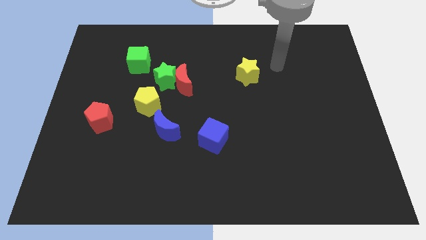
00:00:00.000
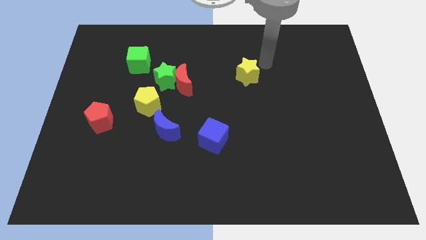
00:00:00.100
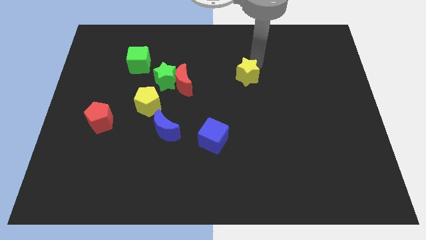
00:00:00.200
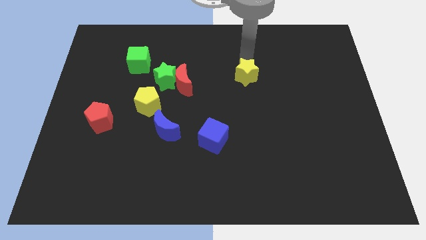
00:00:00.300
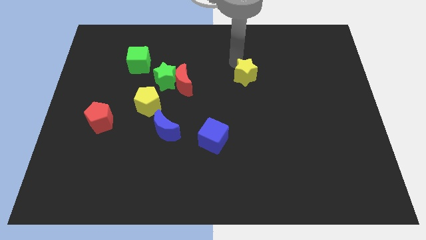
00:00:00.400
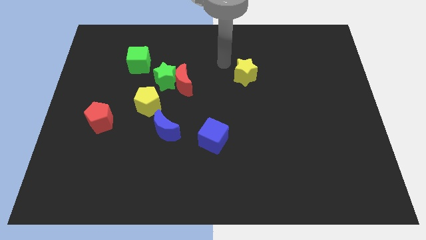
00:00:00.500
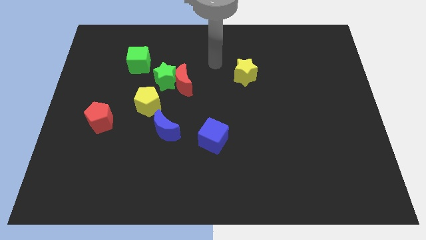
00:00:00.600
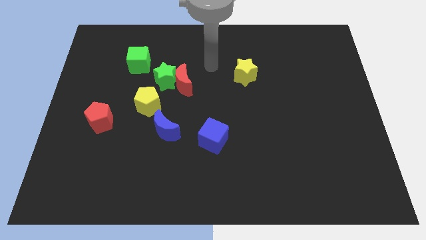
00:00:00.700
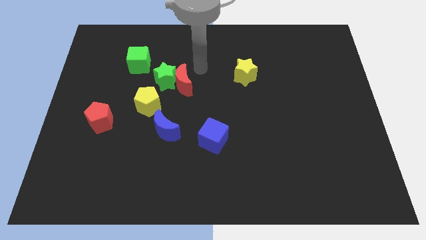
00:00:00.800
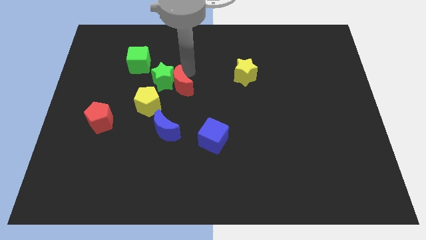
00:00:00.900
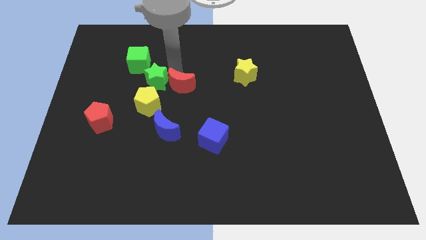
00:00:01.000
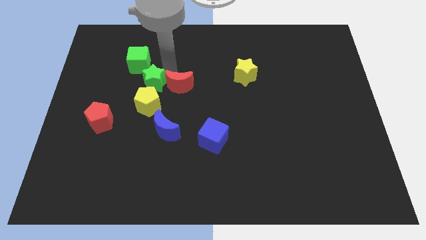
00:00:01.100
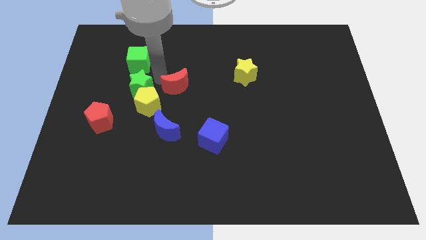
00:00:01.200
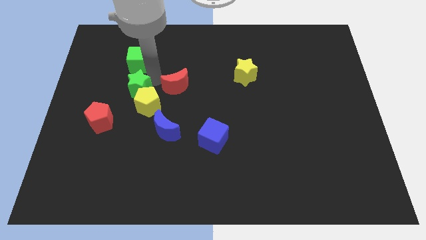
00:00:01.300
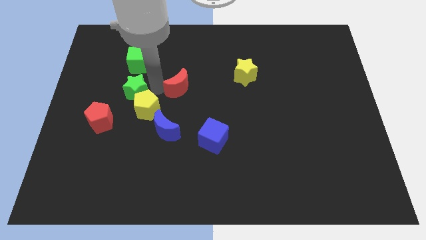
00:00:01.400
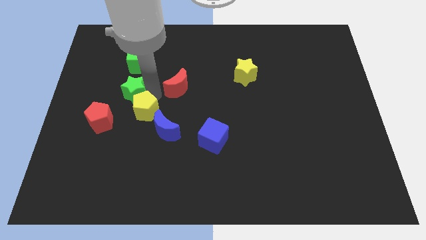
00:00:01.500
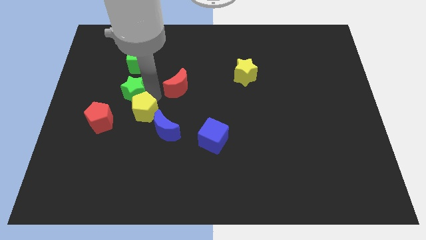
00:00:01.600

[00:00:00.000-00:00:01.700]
move the red moon away from the green star and yellow pentagon

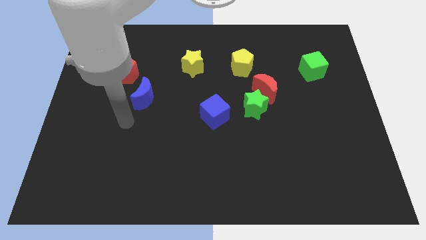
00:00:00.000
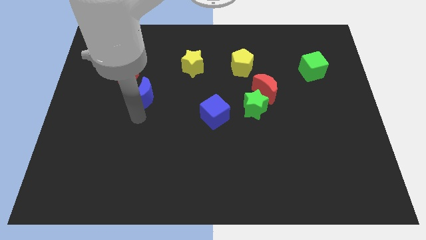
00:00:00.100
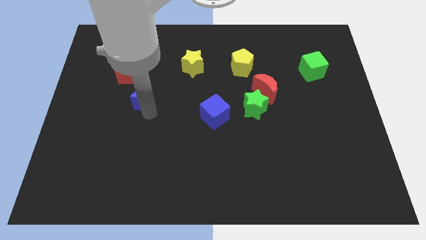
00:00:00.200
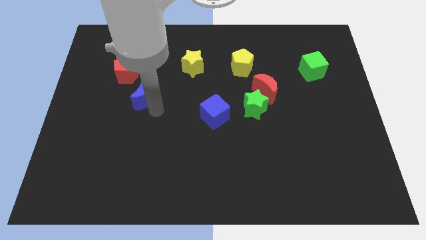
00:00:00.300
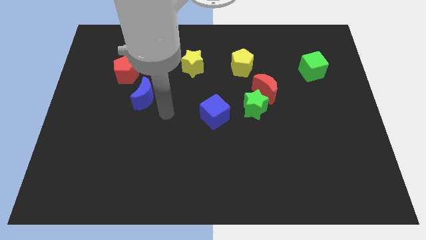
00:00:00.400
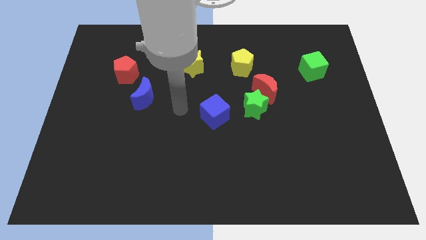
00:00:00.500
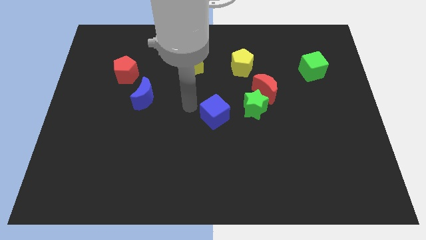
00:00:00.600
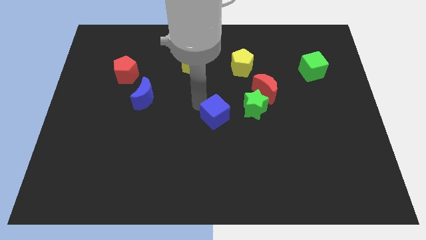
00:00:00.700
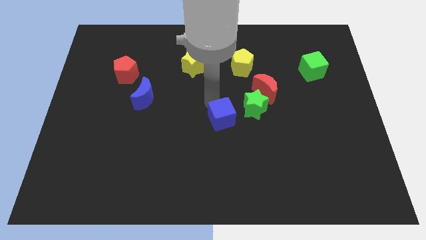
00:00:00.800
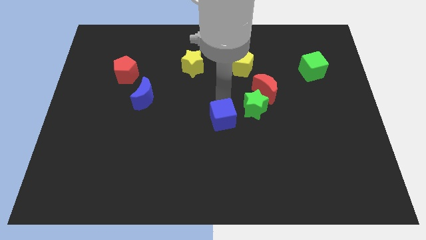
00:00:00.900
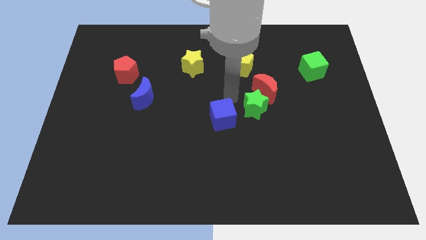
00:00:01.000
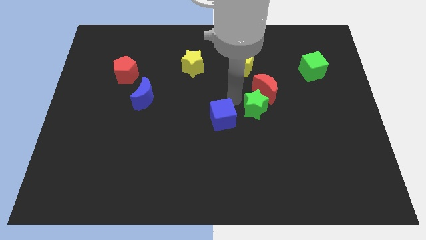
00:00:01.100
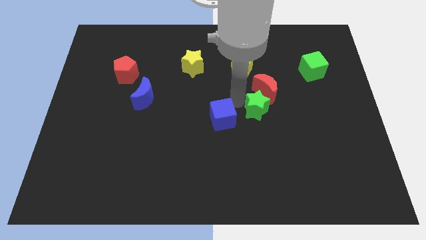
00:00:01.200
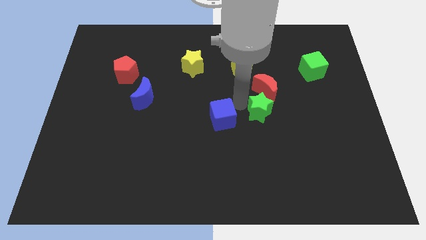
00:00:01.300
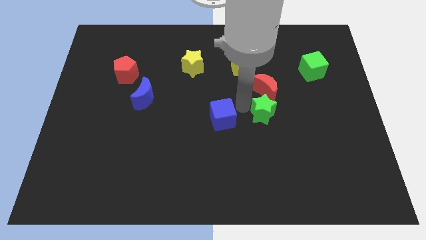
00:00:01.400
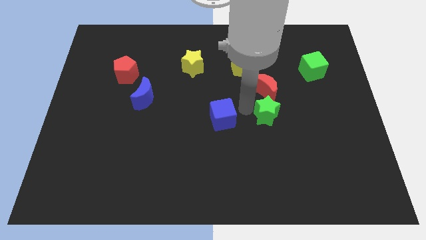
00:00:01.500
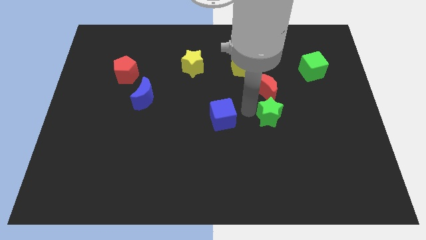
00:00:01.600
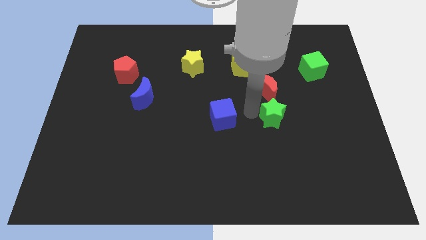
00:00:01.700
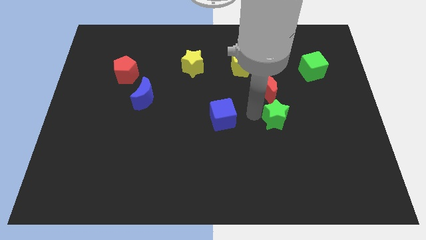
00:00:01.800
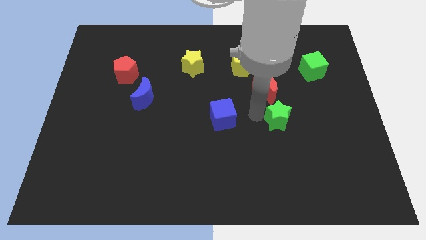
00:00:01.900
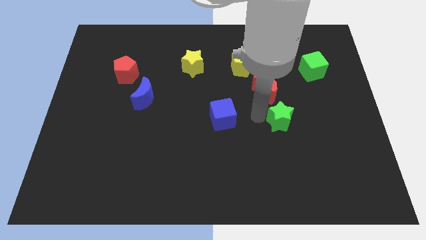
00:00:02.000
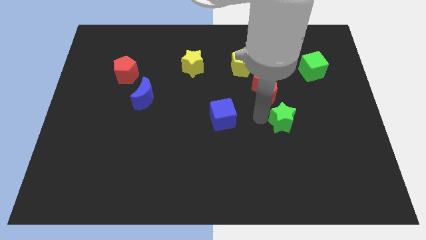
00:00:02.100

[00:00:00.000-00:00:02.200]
separate the green star from the red moon and blue cube

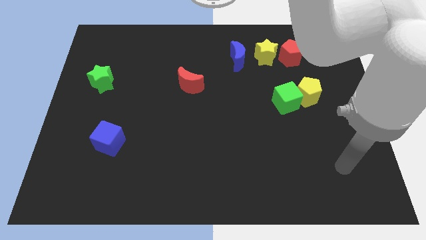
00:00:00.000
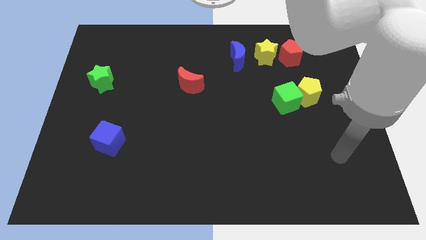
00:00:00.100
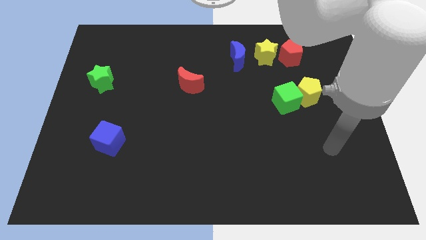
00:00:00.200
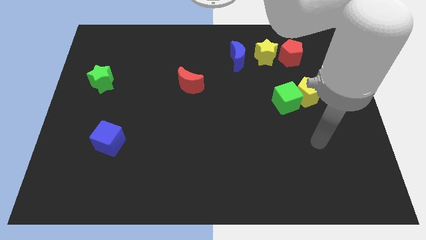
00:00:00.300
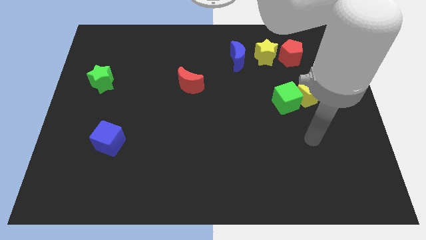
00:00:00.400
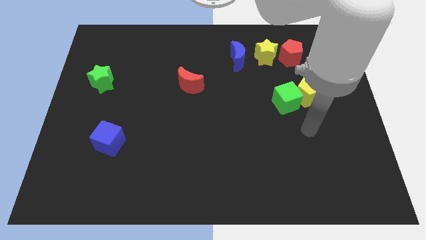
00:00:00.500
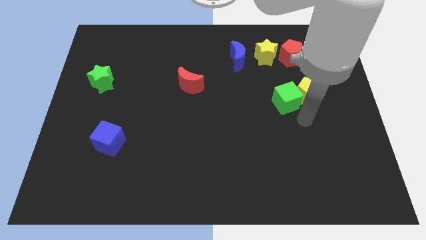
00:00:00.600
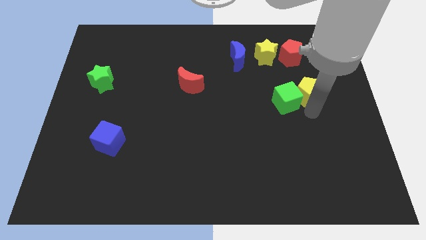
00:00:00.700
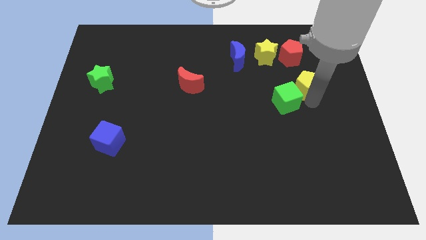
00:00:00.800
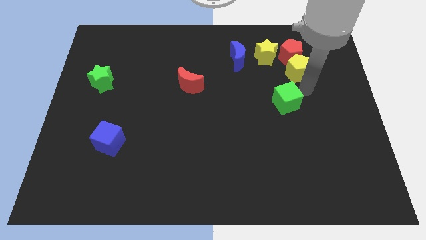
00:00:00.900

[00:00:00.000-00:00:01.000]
move the green cube away from the yellow pentagon

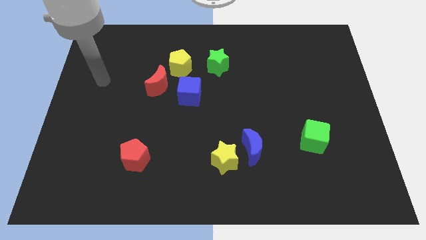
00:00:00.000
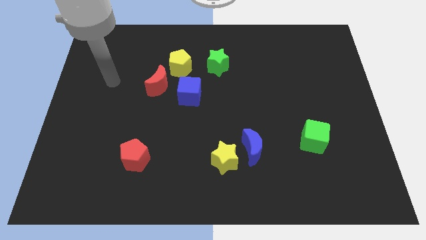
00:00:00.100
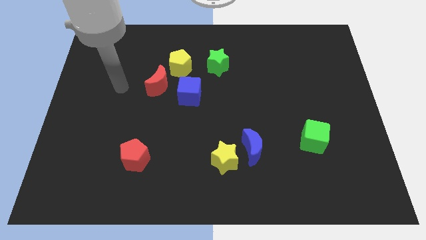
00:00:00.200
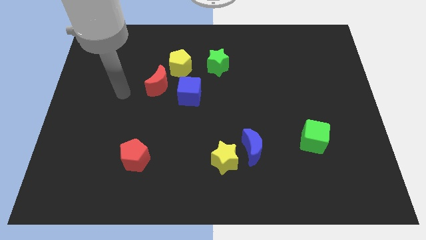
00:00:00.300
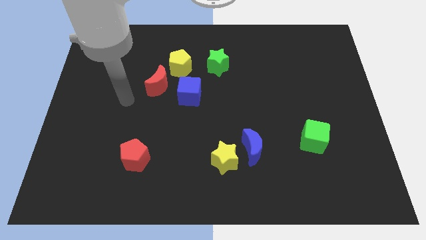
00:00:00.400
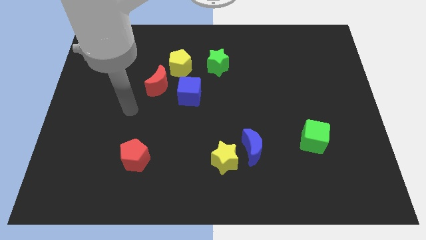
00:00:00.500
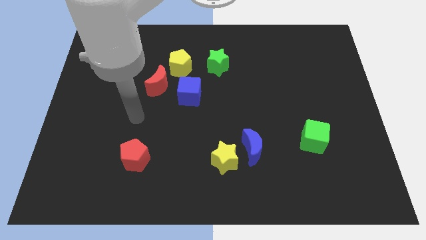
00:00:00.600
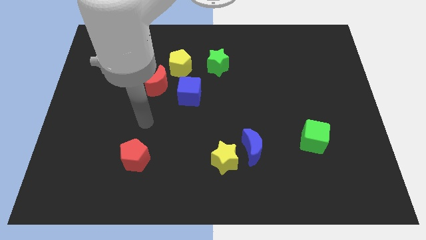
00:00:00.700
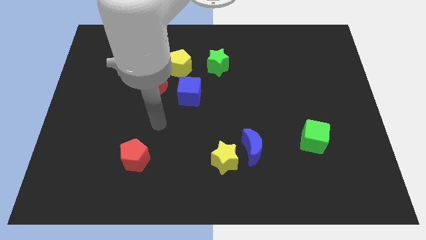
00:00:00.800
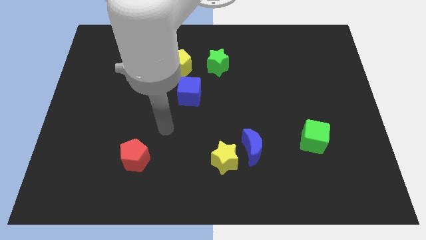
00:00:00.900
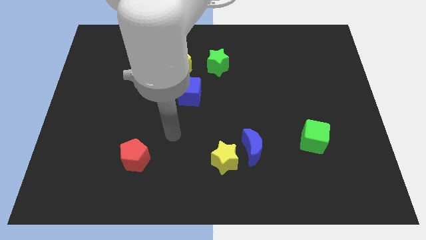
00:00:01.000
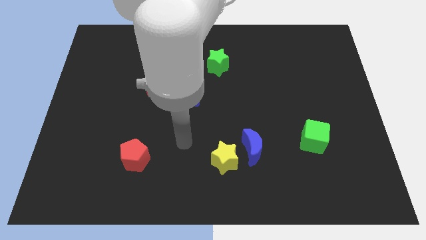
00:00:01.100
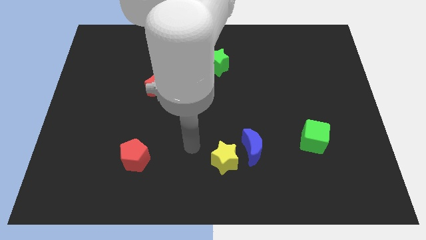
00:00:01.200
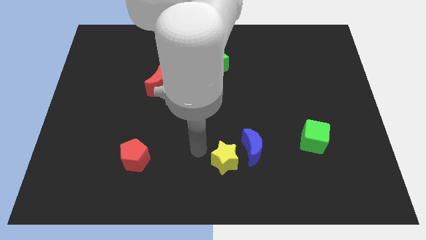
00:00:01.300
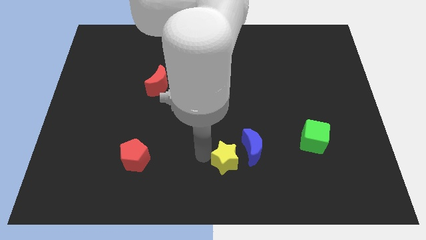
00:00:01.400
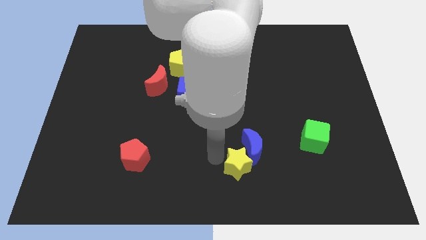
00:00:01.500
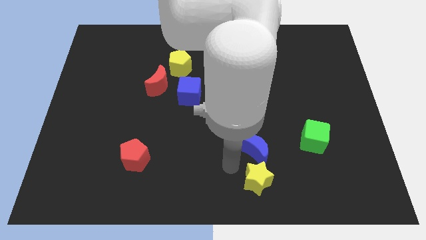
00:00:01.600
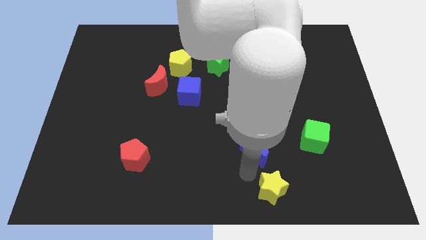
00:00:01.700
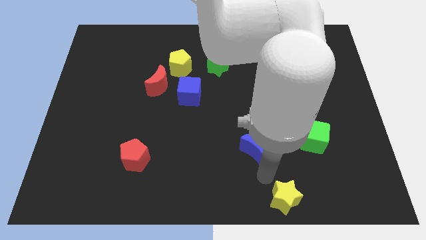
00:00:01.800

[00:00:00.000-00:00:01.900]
move the blue moon away from the yellow star

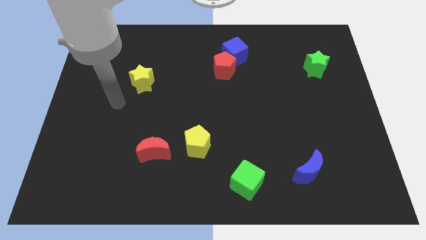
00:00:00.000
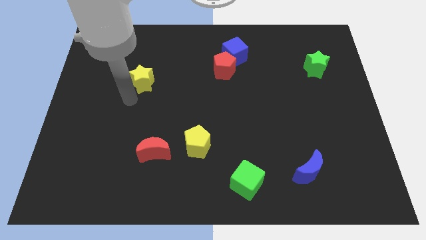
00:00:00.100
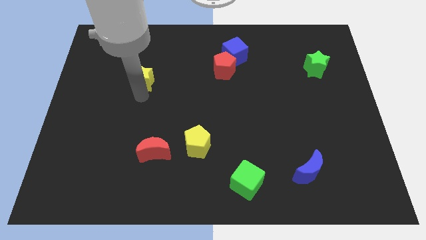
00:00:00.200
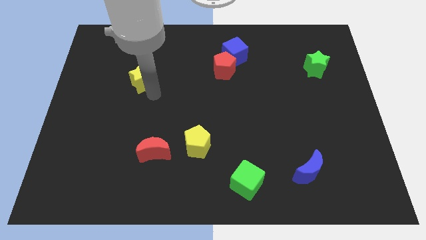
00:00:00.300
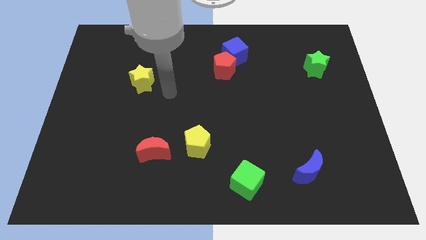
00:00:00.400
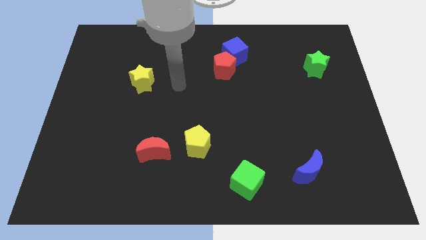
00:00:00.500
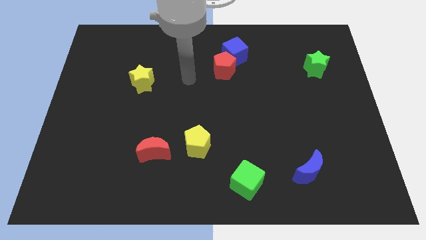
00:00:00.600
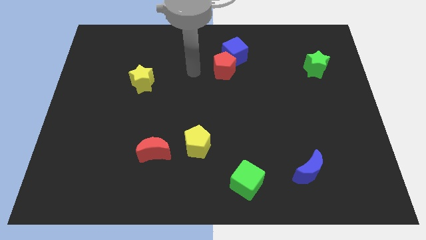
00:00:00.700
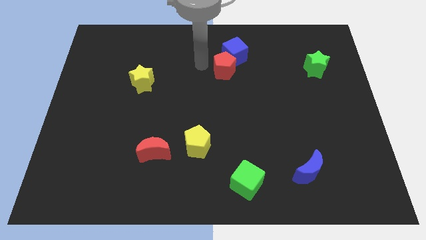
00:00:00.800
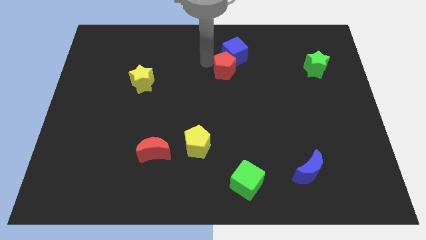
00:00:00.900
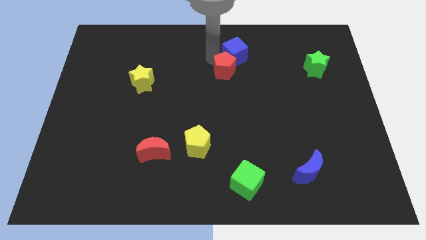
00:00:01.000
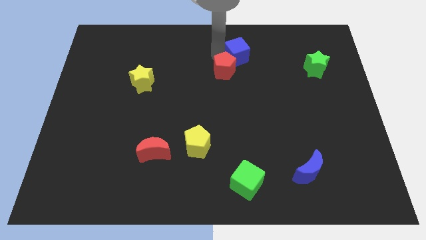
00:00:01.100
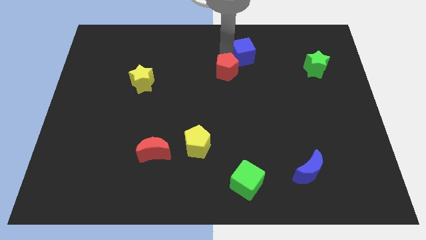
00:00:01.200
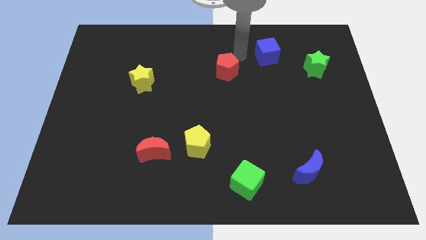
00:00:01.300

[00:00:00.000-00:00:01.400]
pull the red pentagon apart from the blue cube

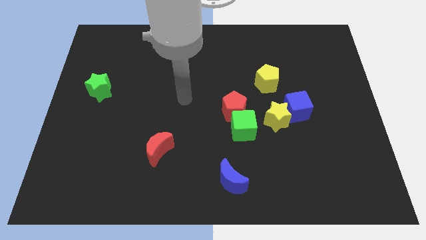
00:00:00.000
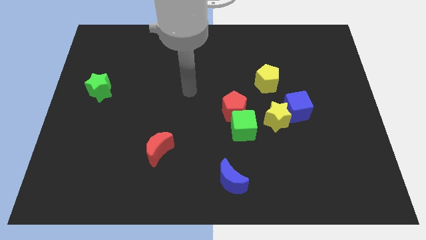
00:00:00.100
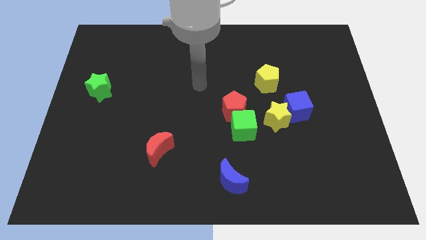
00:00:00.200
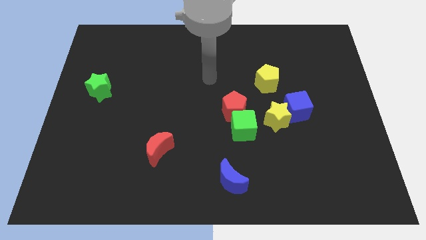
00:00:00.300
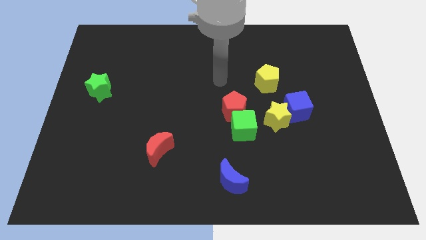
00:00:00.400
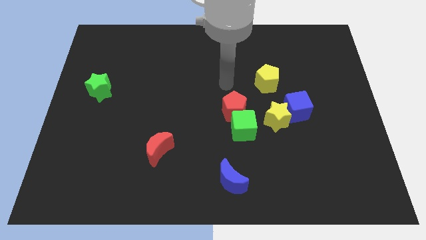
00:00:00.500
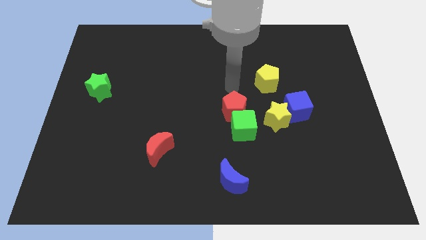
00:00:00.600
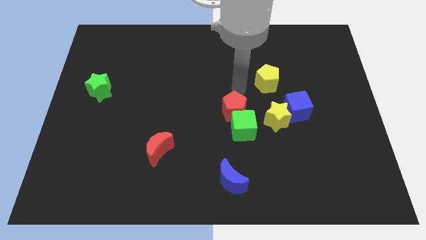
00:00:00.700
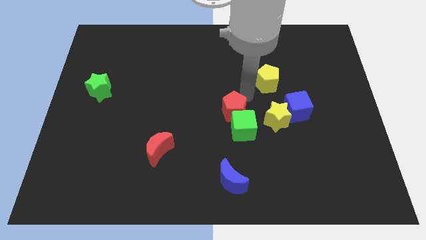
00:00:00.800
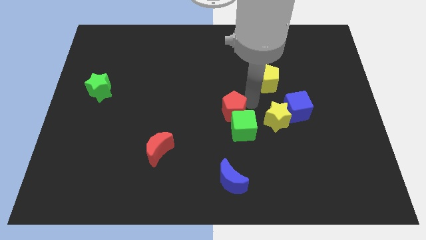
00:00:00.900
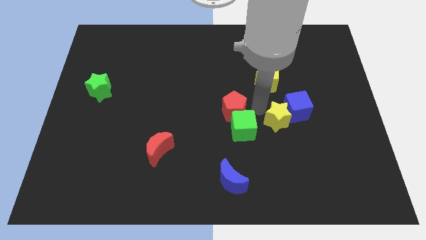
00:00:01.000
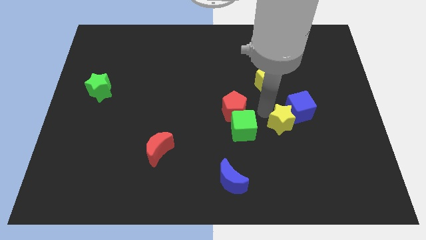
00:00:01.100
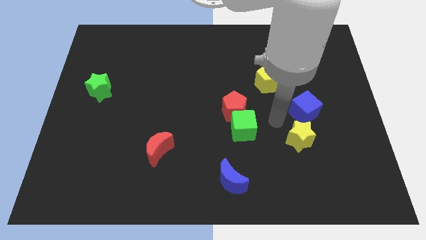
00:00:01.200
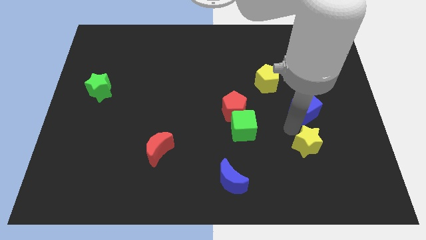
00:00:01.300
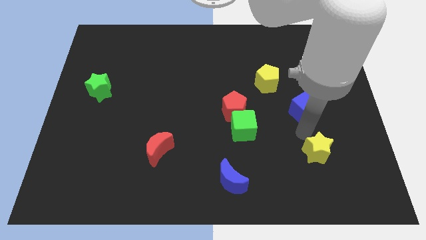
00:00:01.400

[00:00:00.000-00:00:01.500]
move the blue cube away from the yellow star
